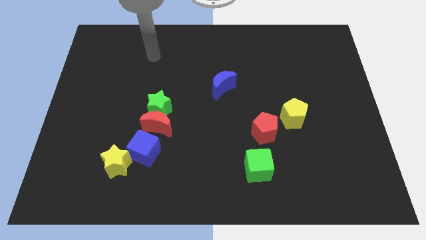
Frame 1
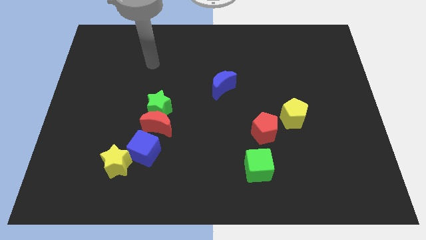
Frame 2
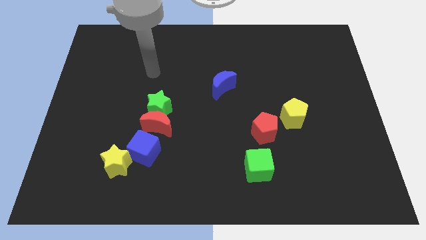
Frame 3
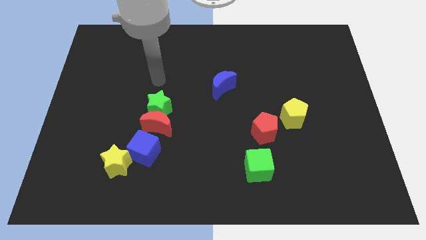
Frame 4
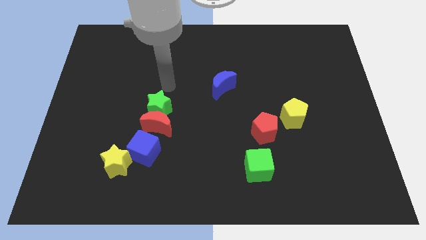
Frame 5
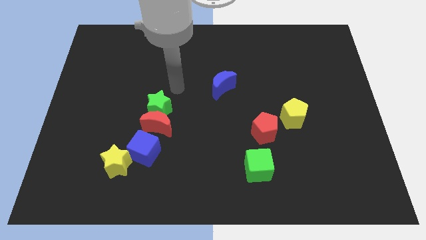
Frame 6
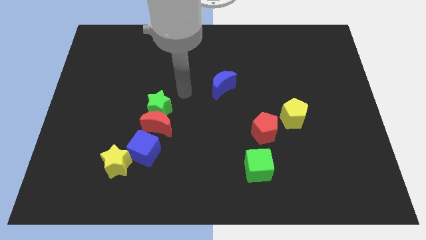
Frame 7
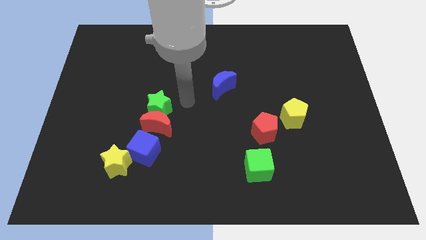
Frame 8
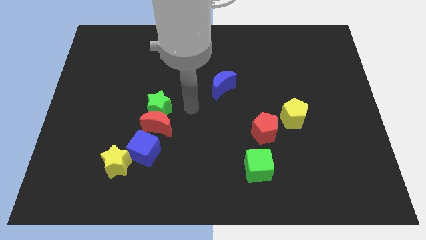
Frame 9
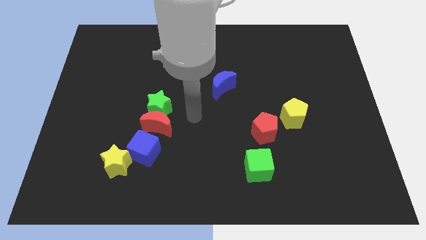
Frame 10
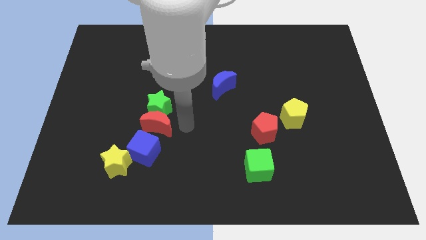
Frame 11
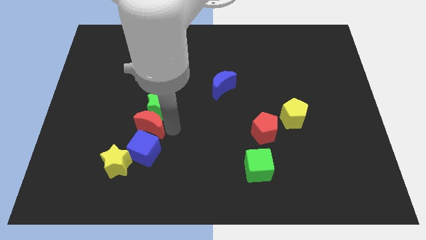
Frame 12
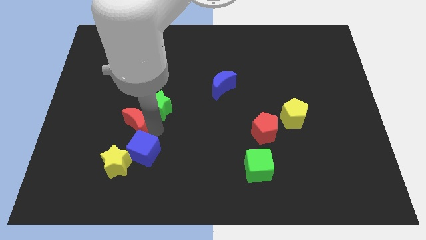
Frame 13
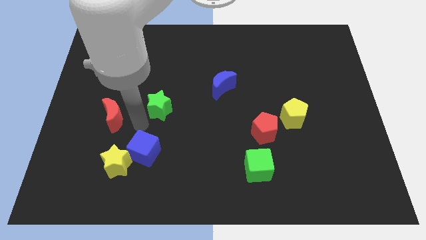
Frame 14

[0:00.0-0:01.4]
pull the green star apart from the red moon

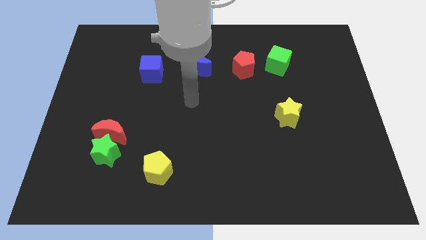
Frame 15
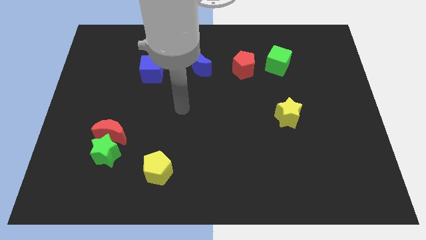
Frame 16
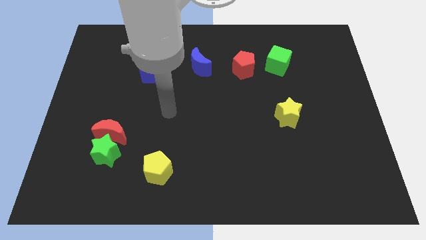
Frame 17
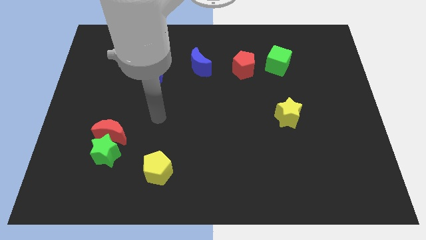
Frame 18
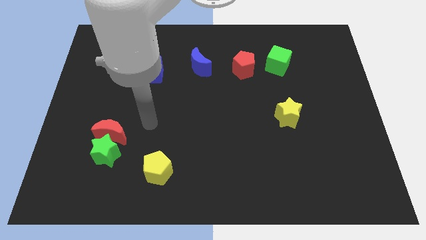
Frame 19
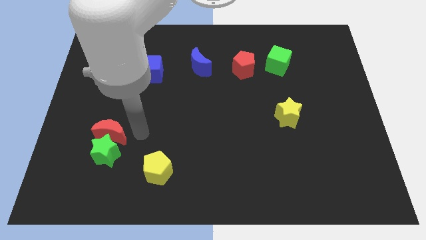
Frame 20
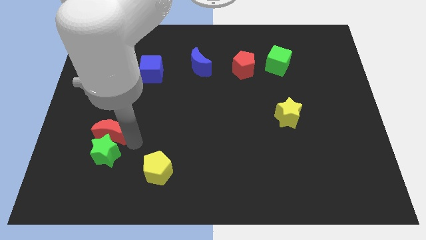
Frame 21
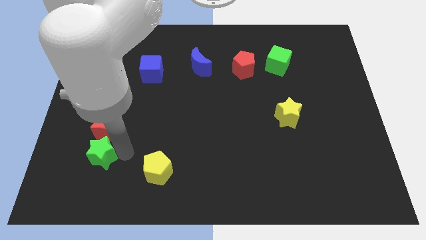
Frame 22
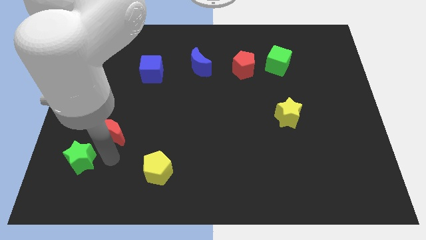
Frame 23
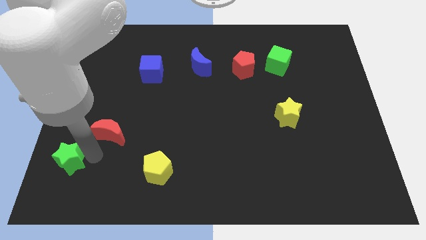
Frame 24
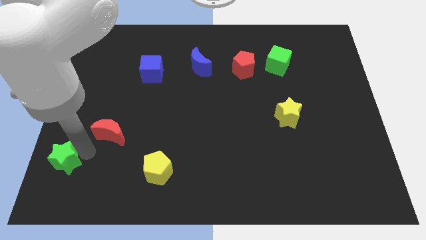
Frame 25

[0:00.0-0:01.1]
separate the red moon from the green star

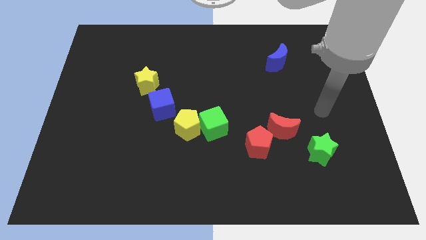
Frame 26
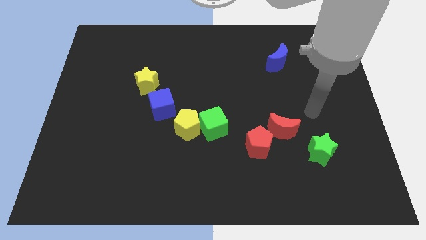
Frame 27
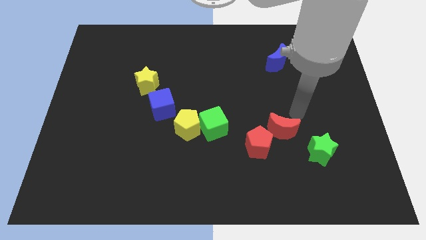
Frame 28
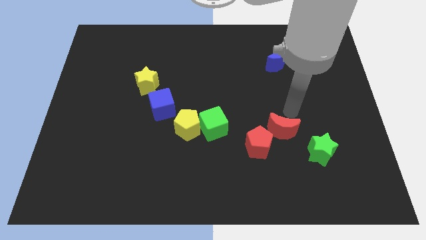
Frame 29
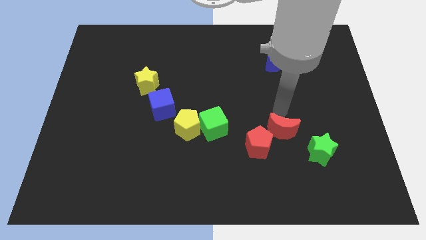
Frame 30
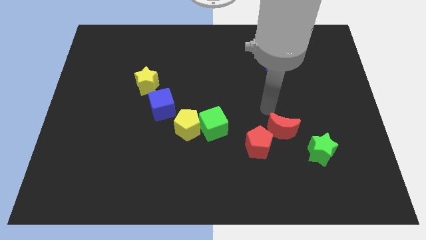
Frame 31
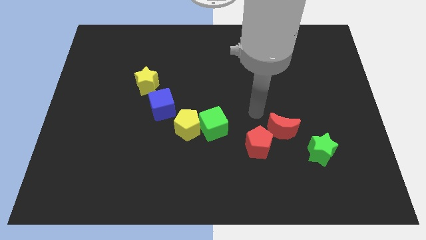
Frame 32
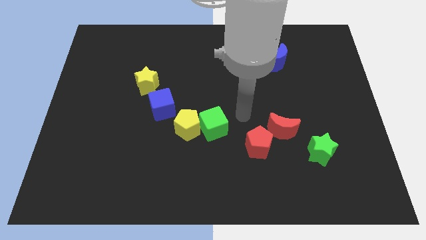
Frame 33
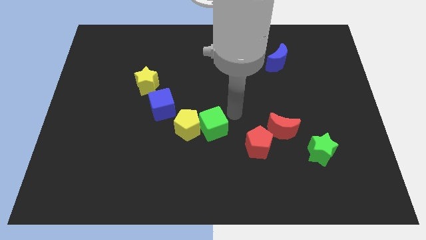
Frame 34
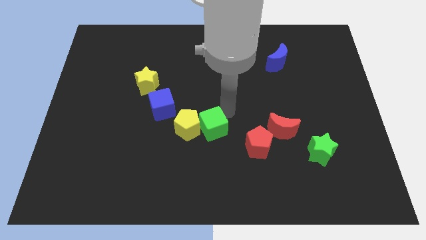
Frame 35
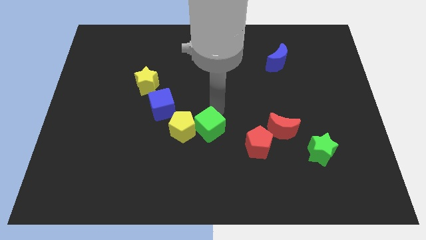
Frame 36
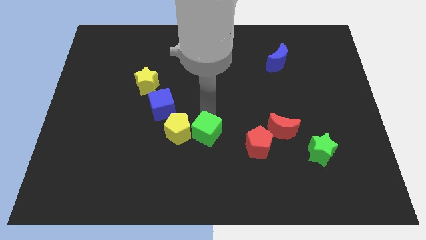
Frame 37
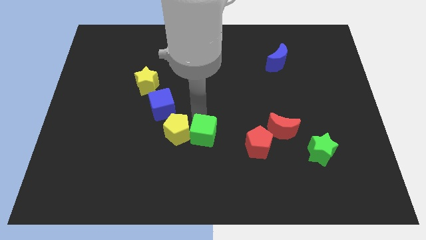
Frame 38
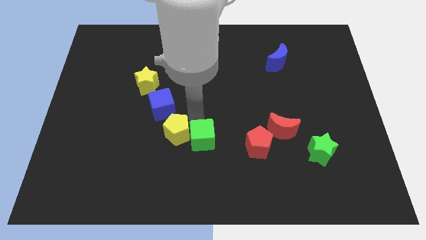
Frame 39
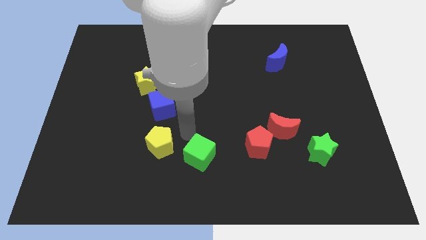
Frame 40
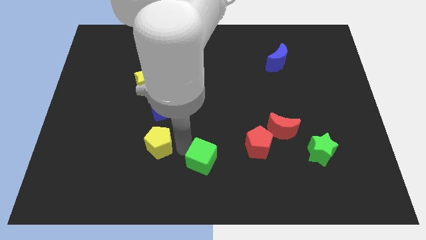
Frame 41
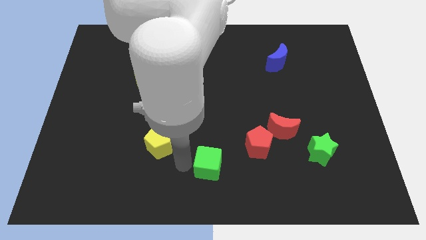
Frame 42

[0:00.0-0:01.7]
separate the green cube from the yellow pentagon

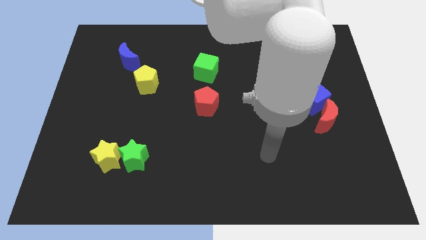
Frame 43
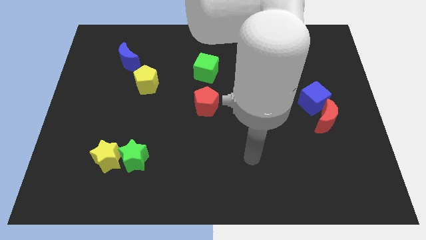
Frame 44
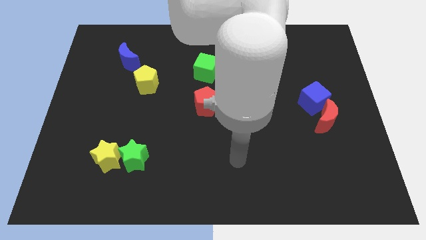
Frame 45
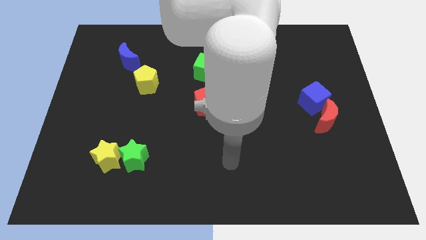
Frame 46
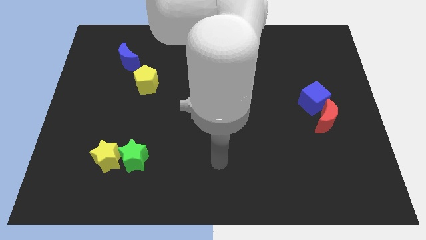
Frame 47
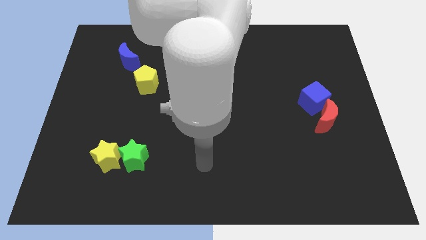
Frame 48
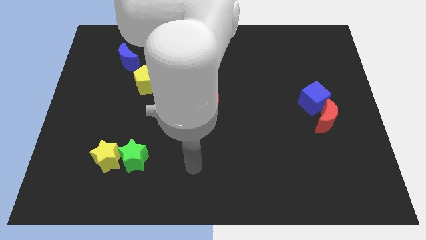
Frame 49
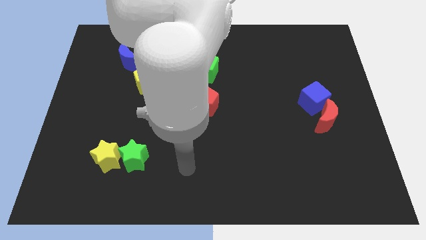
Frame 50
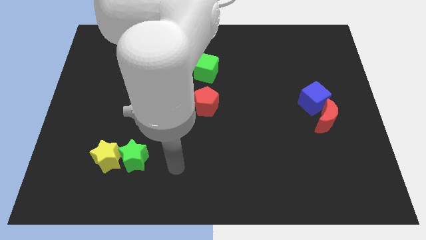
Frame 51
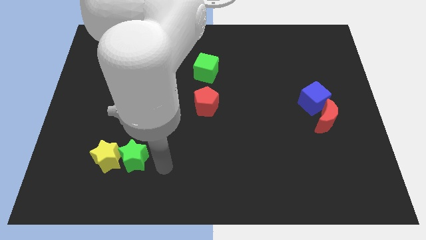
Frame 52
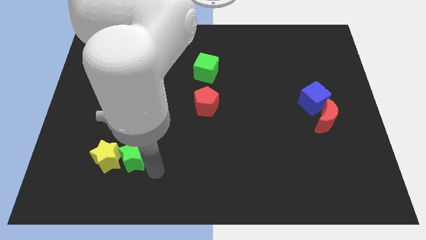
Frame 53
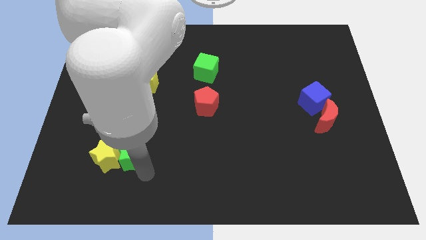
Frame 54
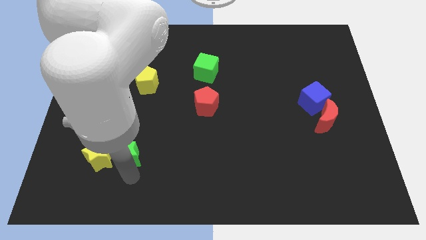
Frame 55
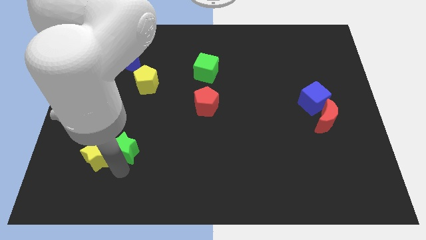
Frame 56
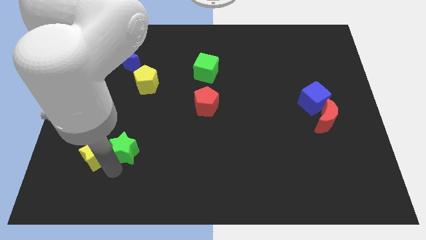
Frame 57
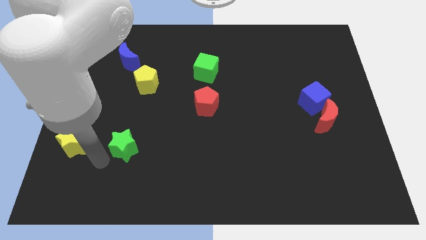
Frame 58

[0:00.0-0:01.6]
move the green star away from the yellow star

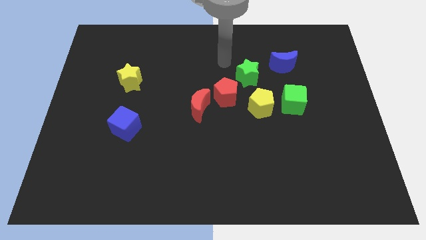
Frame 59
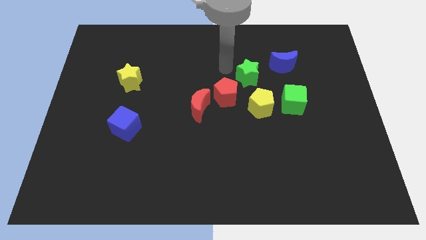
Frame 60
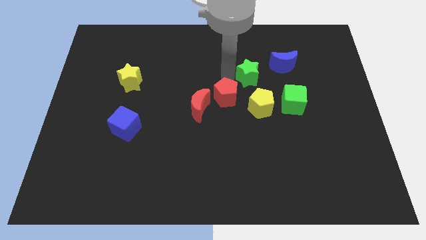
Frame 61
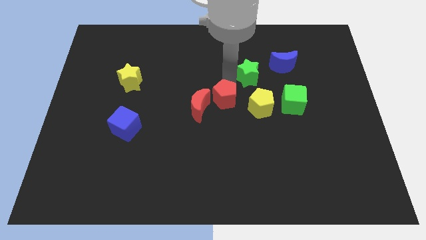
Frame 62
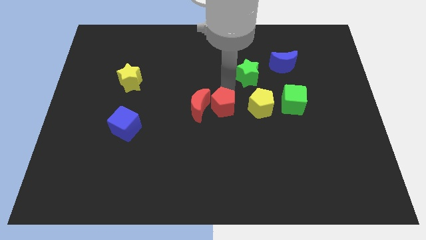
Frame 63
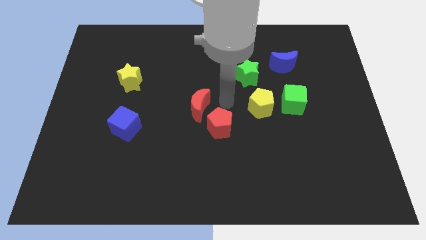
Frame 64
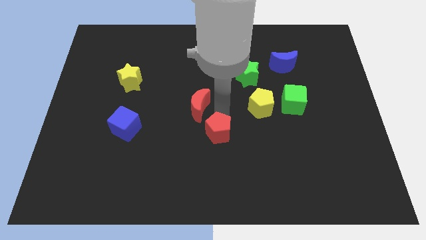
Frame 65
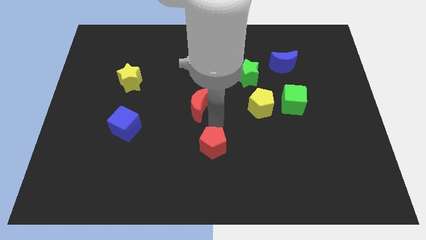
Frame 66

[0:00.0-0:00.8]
separate the red moon from the red pentagon

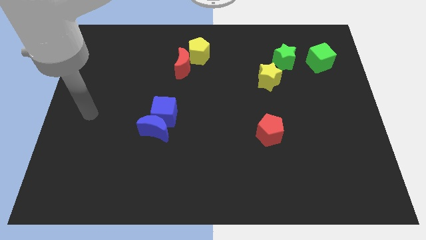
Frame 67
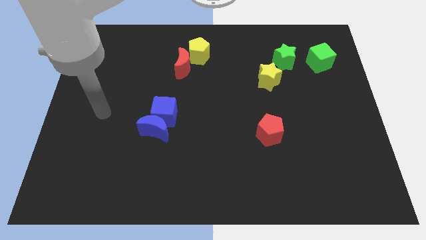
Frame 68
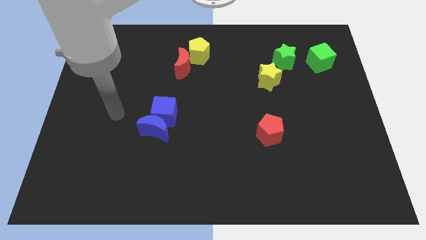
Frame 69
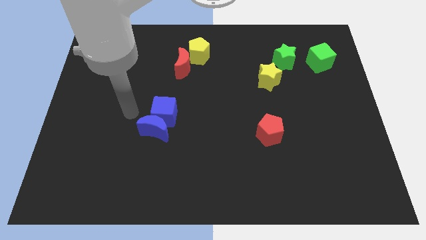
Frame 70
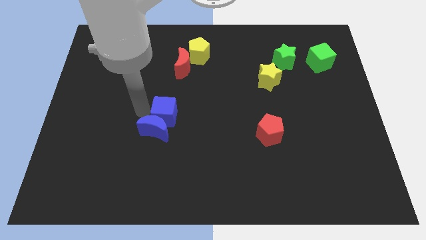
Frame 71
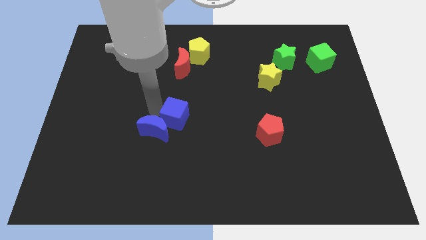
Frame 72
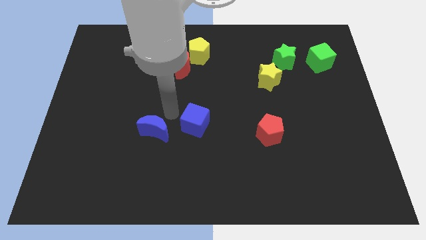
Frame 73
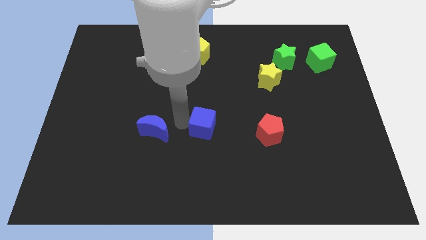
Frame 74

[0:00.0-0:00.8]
move the blue moon away from the blue cube

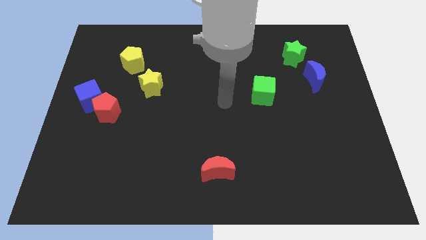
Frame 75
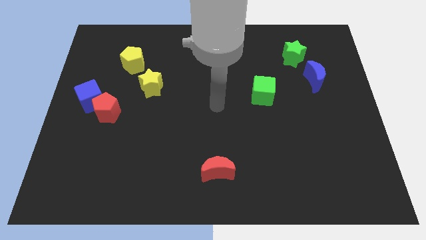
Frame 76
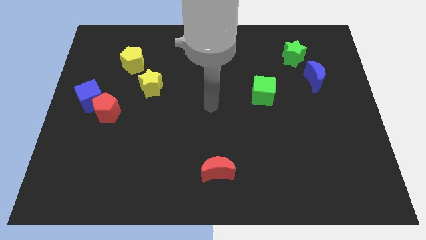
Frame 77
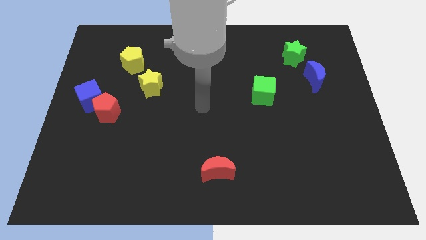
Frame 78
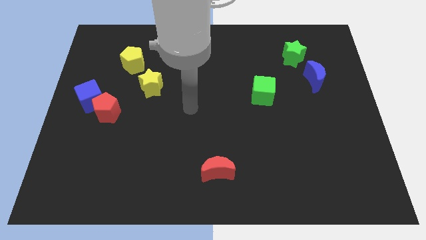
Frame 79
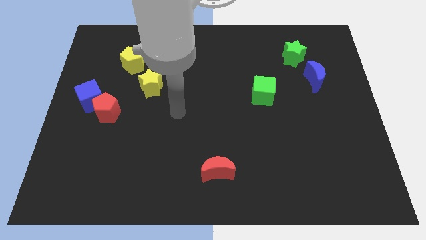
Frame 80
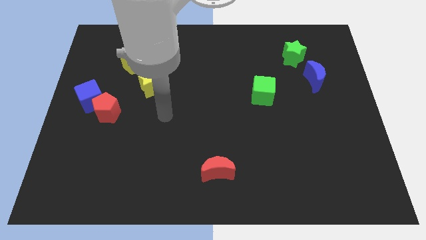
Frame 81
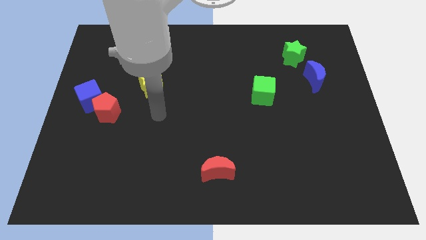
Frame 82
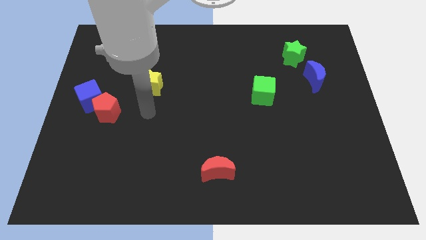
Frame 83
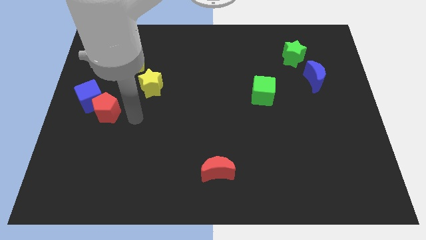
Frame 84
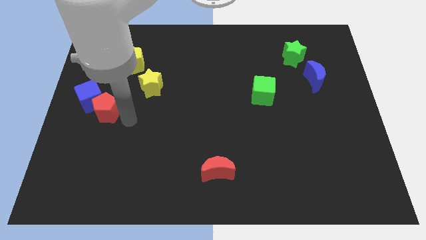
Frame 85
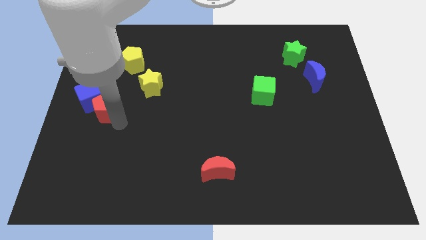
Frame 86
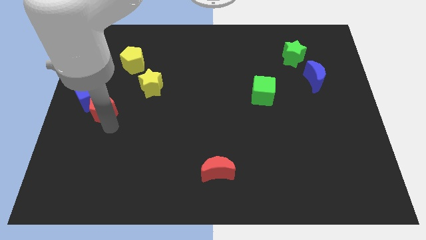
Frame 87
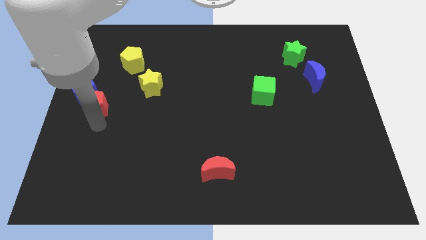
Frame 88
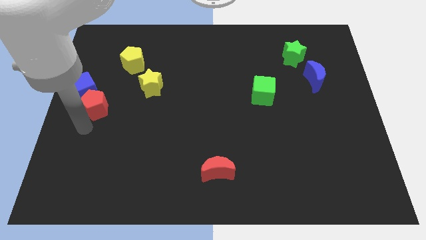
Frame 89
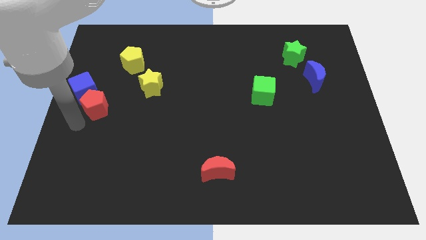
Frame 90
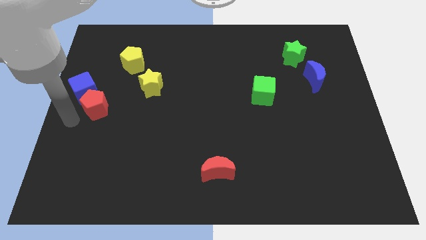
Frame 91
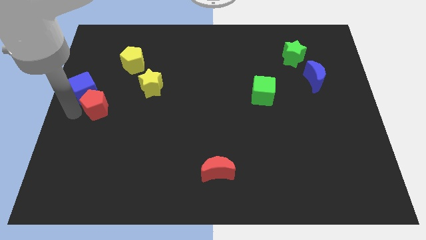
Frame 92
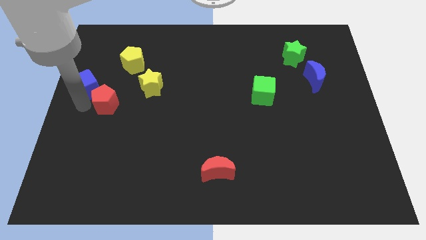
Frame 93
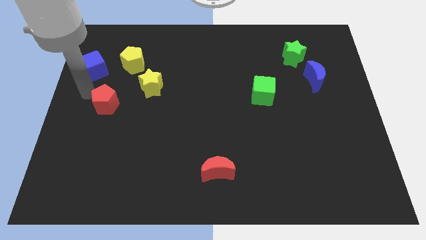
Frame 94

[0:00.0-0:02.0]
pull the red pentagon apart from the blue cube

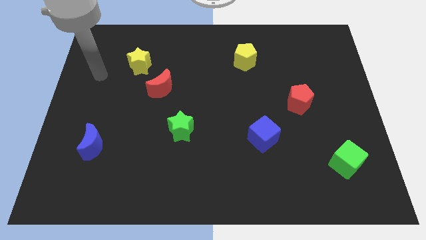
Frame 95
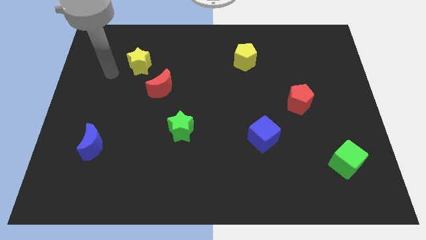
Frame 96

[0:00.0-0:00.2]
separate the red moon from the yellow star
